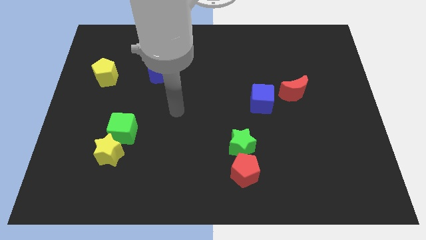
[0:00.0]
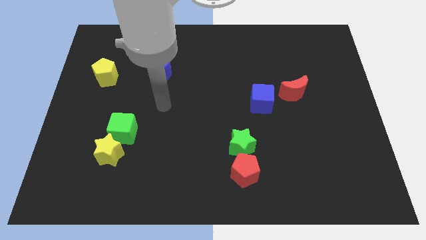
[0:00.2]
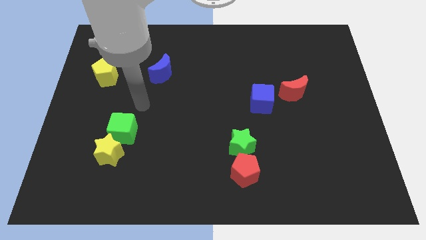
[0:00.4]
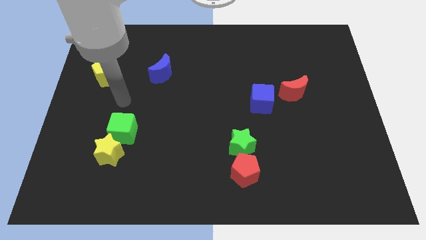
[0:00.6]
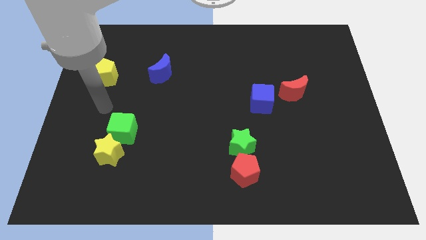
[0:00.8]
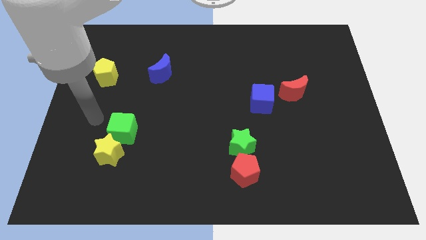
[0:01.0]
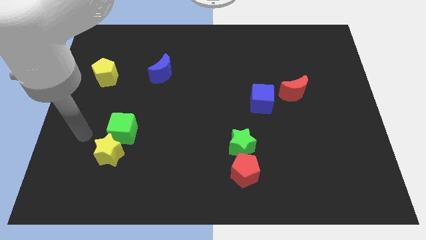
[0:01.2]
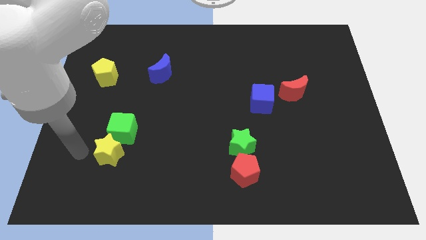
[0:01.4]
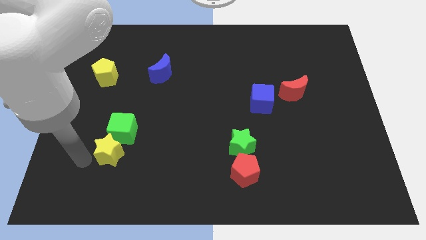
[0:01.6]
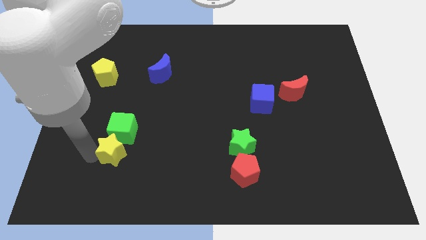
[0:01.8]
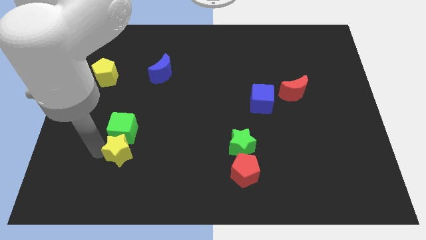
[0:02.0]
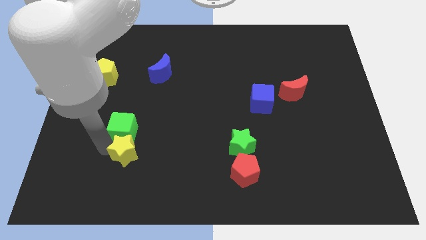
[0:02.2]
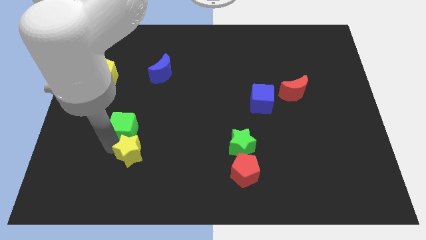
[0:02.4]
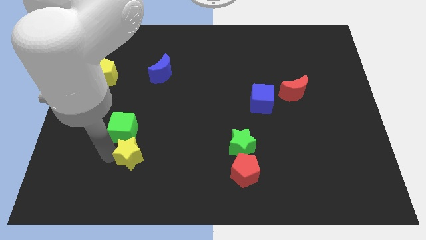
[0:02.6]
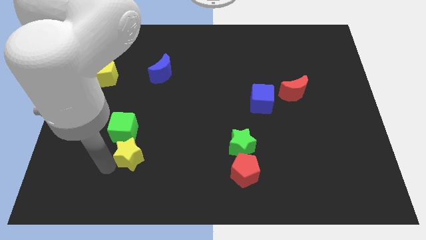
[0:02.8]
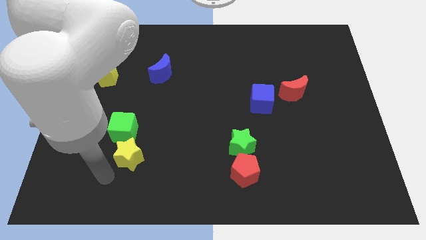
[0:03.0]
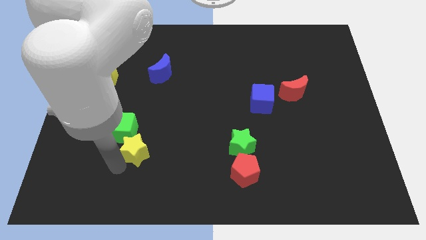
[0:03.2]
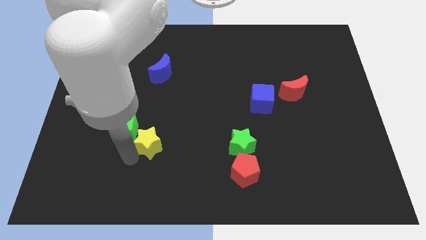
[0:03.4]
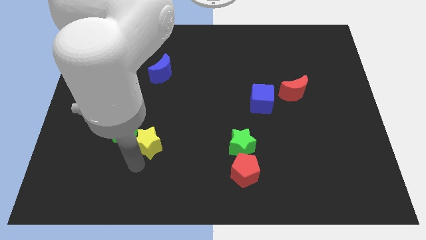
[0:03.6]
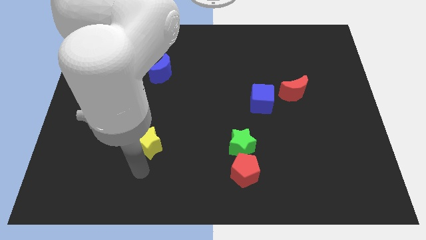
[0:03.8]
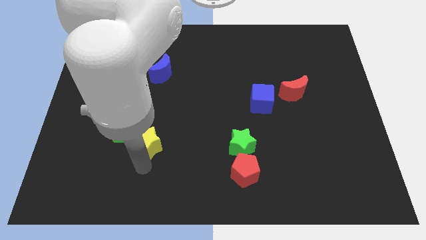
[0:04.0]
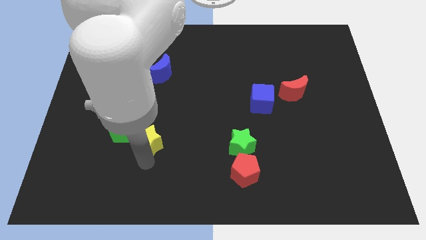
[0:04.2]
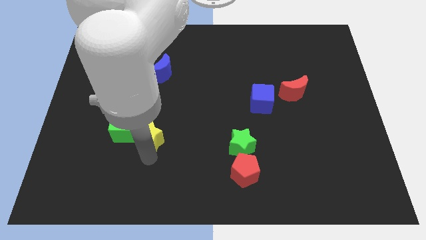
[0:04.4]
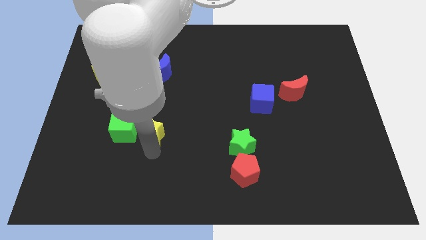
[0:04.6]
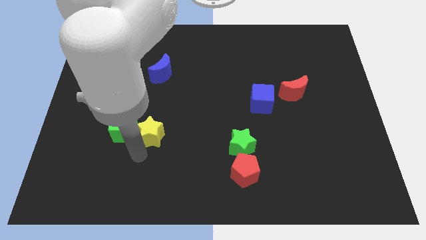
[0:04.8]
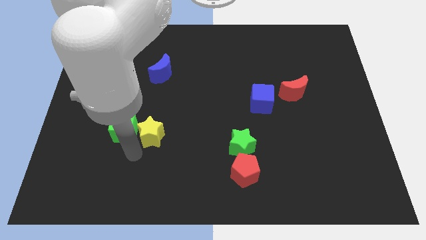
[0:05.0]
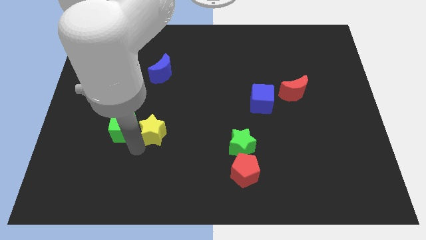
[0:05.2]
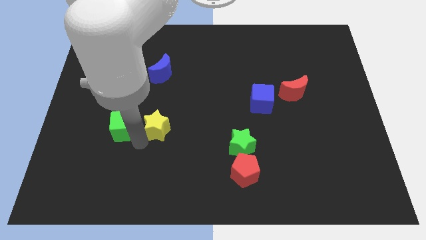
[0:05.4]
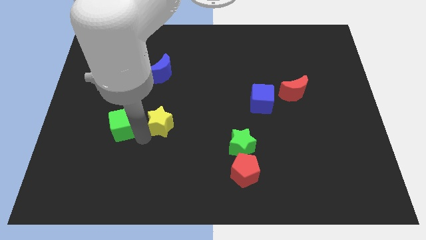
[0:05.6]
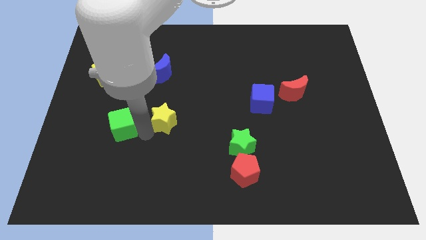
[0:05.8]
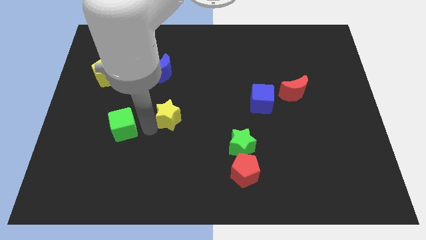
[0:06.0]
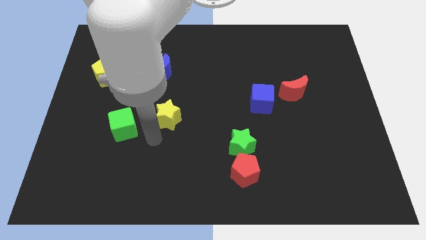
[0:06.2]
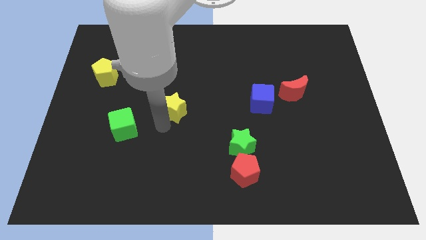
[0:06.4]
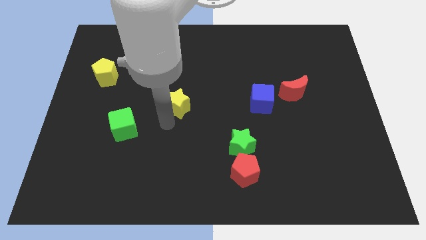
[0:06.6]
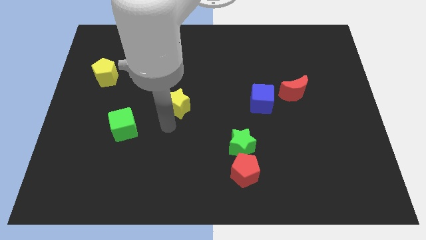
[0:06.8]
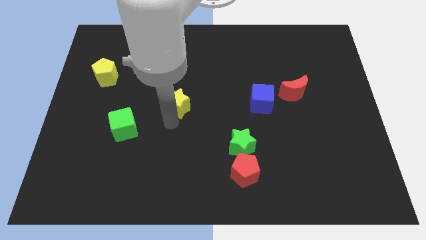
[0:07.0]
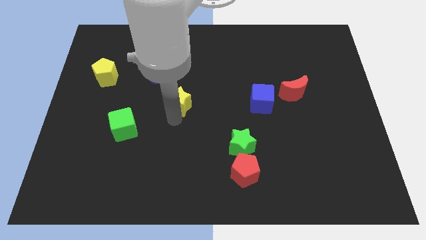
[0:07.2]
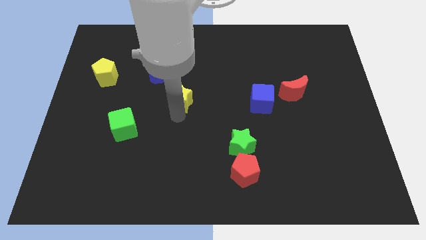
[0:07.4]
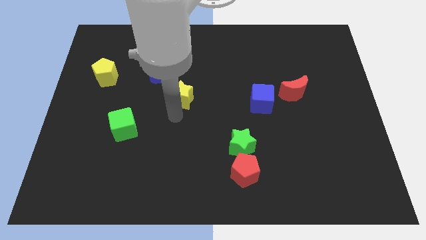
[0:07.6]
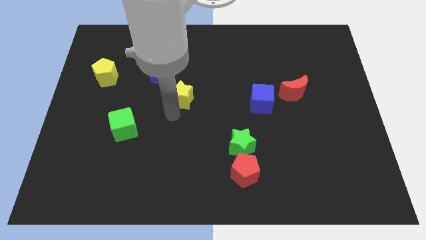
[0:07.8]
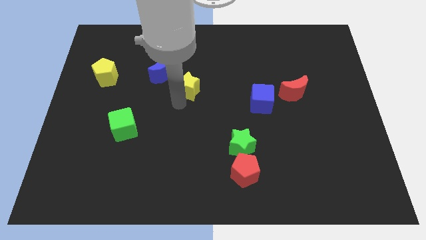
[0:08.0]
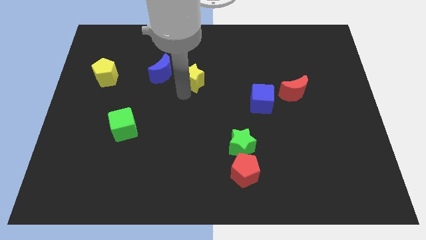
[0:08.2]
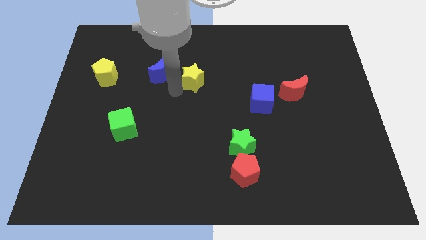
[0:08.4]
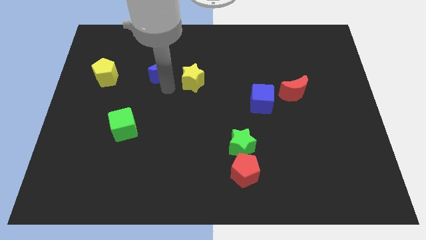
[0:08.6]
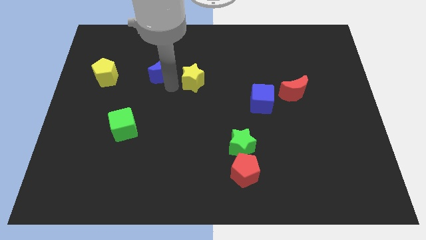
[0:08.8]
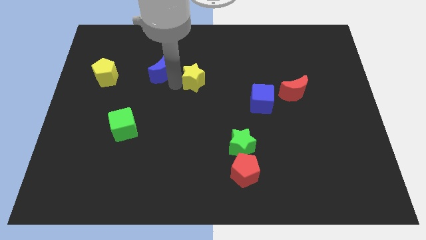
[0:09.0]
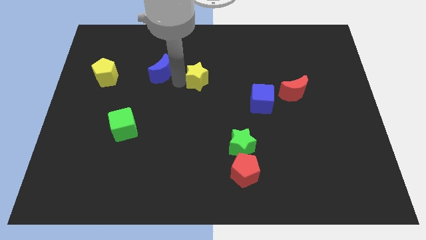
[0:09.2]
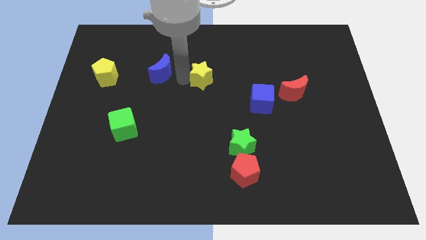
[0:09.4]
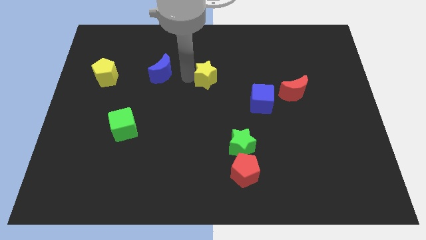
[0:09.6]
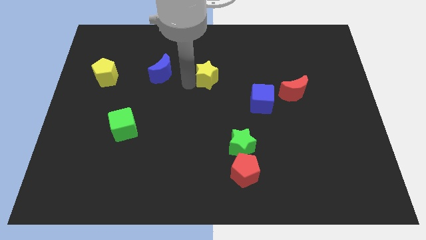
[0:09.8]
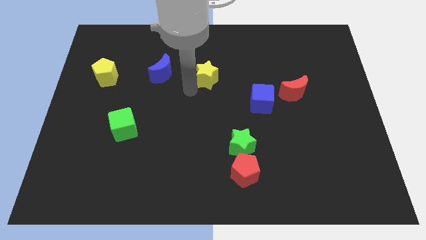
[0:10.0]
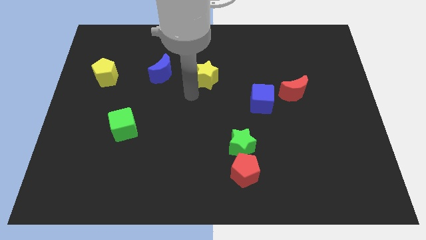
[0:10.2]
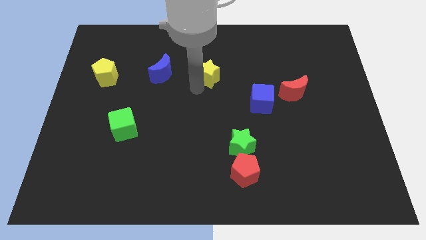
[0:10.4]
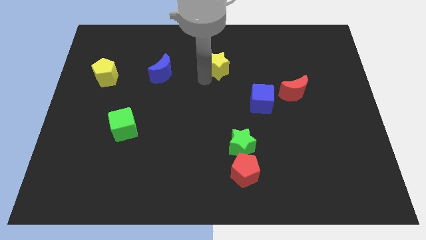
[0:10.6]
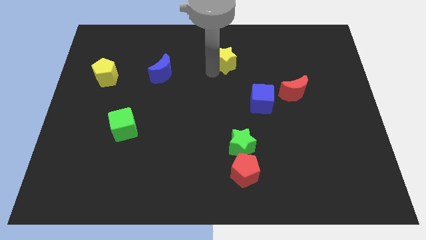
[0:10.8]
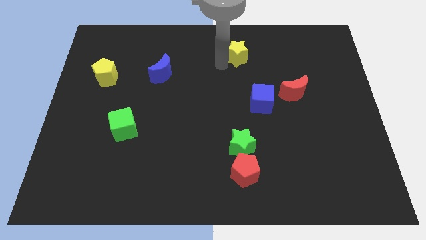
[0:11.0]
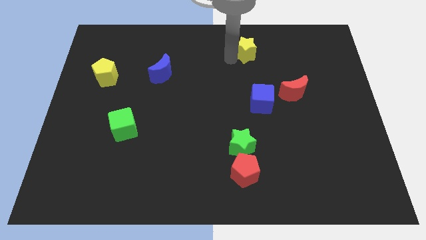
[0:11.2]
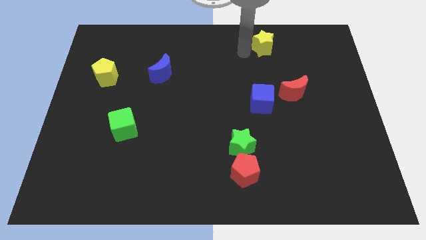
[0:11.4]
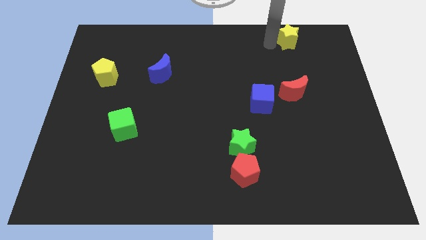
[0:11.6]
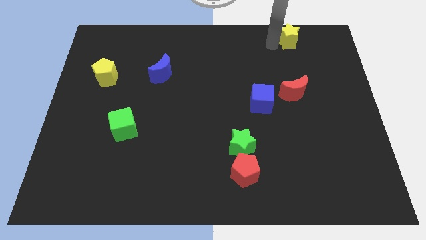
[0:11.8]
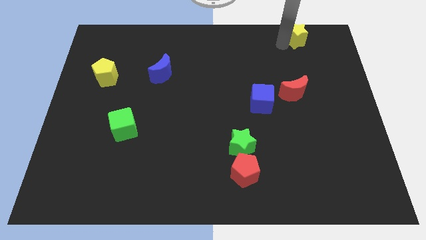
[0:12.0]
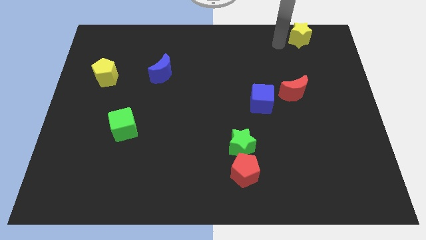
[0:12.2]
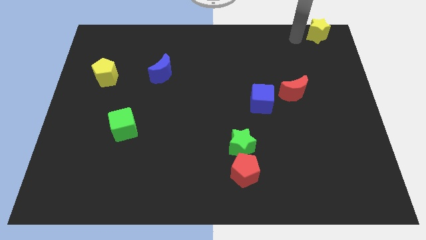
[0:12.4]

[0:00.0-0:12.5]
push the yellow star to the upper right corner
